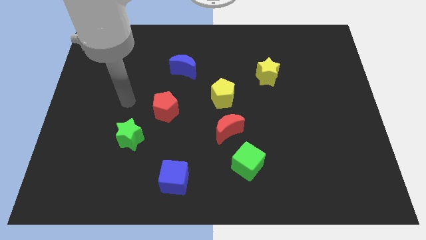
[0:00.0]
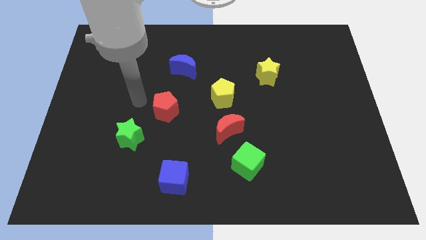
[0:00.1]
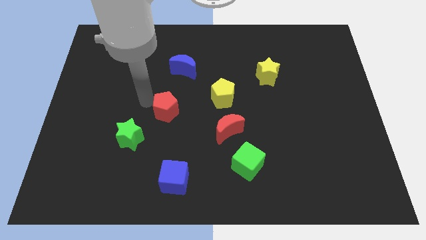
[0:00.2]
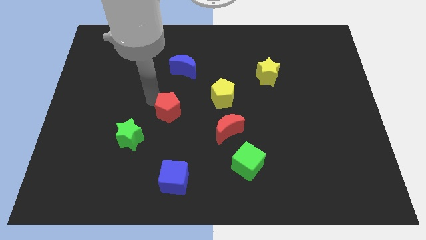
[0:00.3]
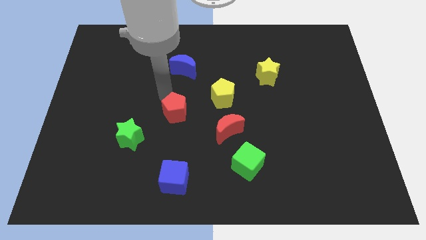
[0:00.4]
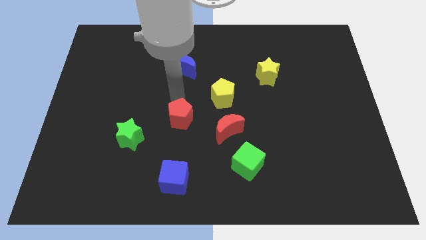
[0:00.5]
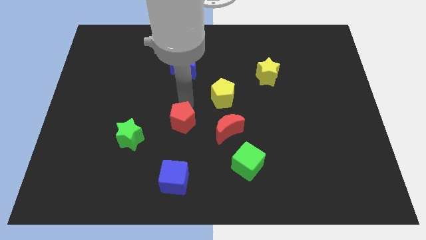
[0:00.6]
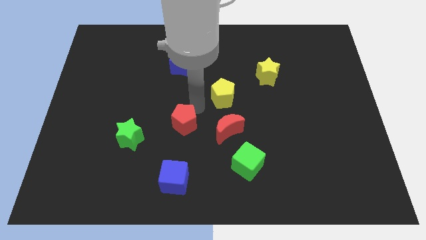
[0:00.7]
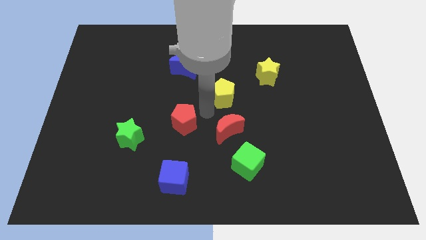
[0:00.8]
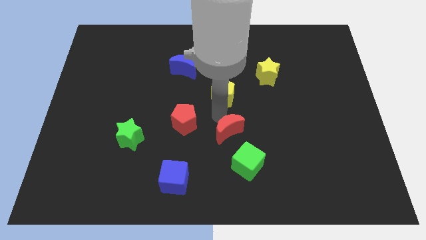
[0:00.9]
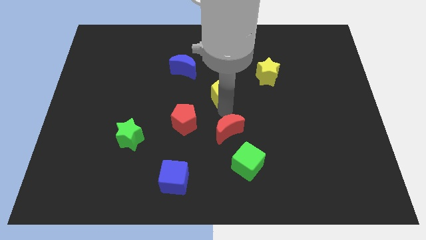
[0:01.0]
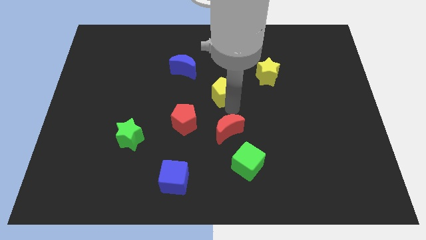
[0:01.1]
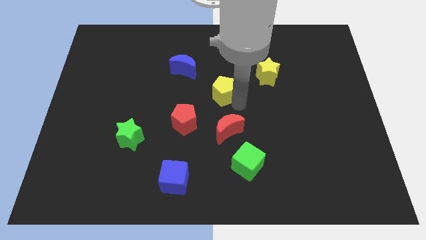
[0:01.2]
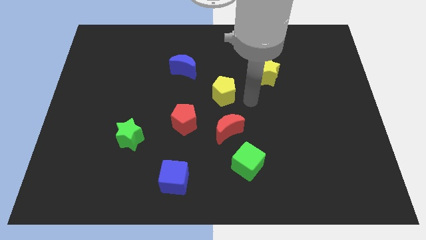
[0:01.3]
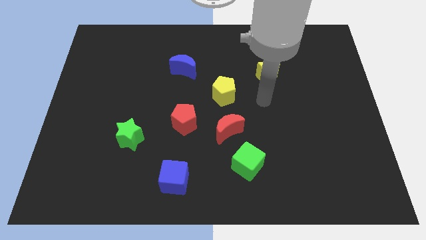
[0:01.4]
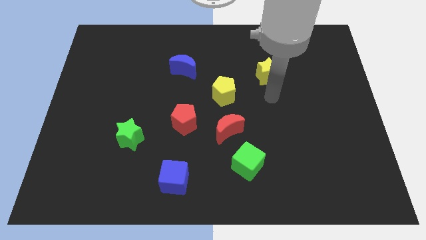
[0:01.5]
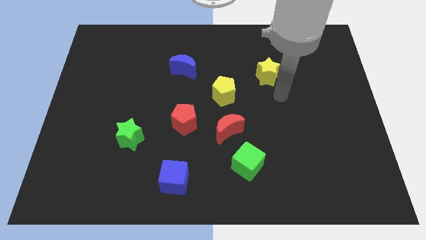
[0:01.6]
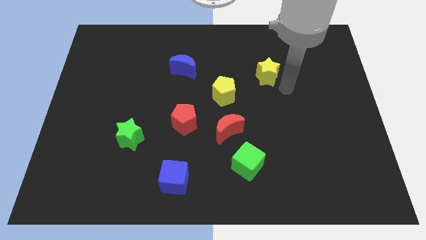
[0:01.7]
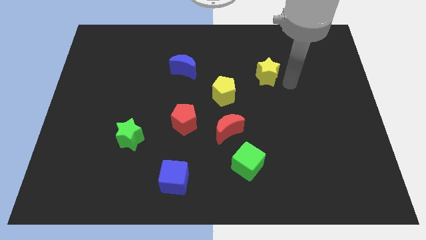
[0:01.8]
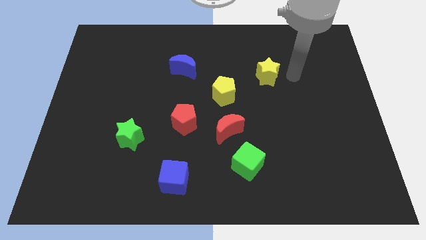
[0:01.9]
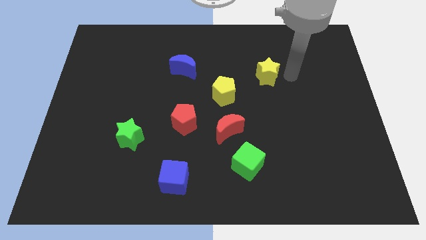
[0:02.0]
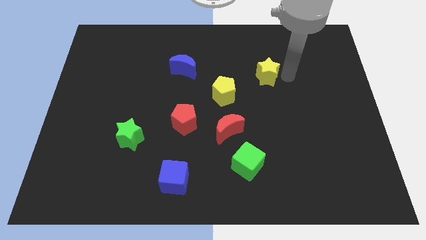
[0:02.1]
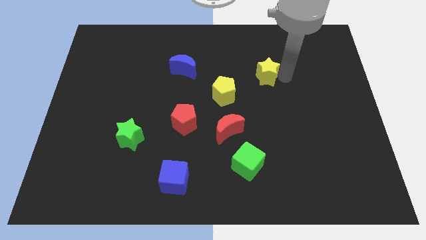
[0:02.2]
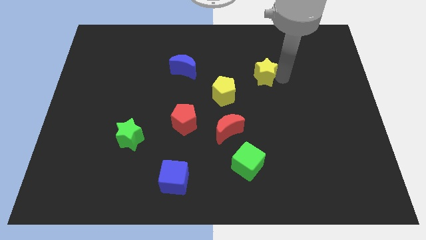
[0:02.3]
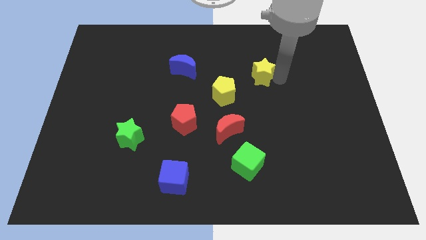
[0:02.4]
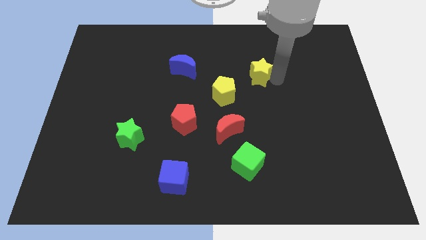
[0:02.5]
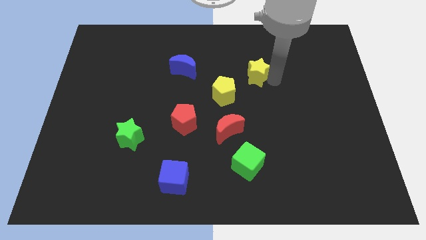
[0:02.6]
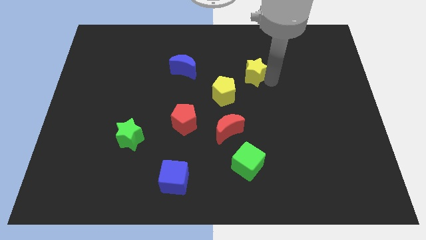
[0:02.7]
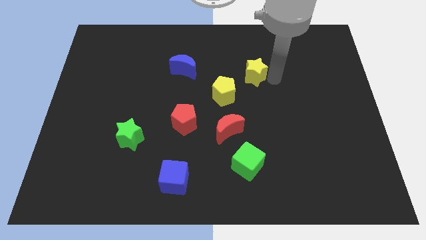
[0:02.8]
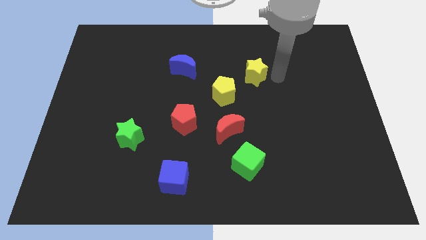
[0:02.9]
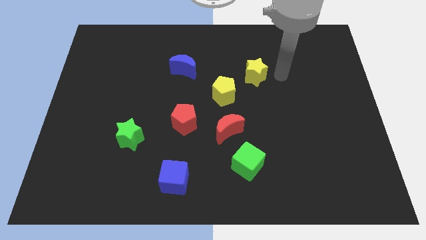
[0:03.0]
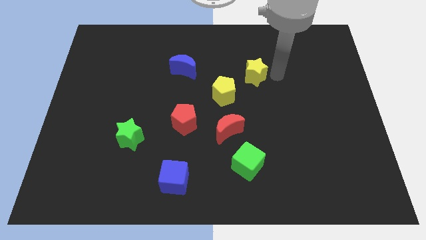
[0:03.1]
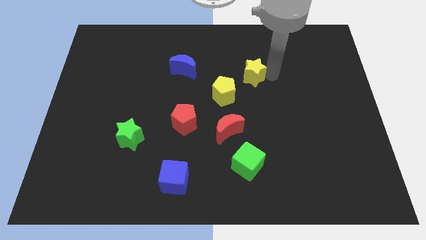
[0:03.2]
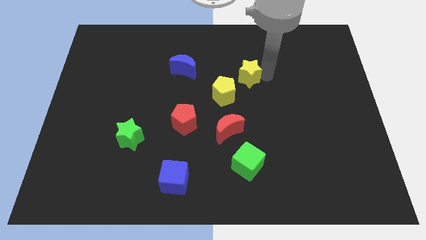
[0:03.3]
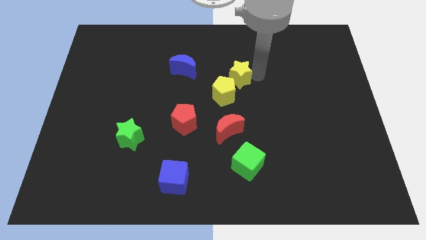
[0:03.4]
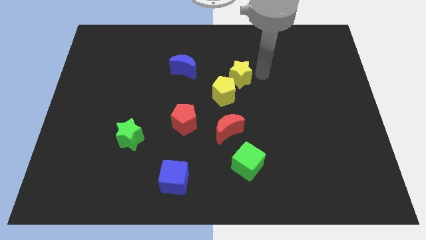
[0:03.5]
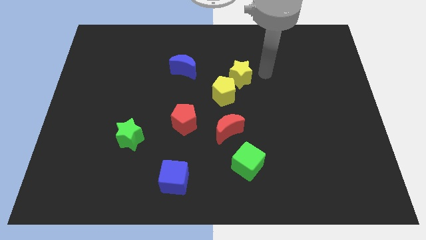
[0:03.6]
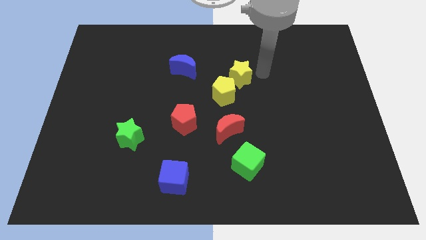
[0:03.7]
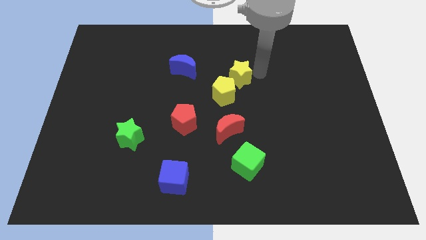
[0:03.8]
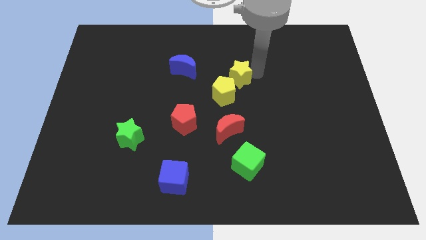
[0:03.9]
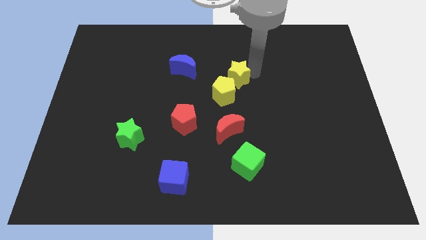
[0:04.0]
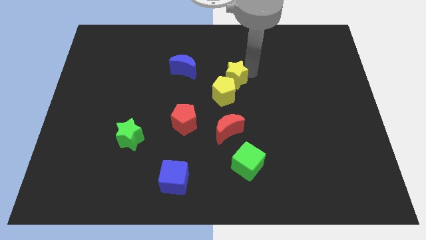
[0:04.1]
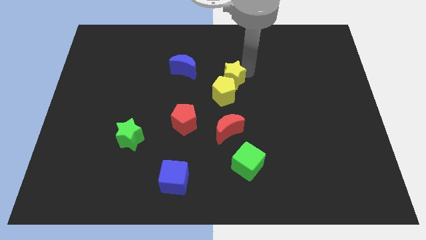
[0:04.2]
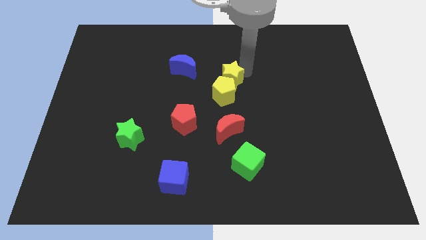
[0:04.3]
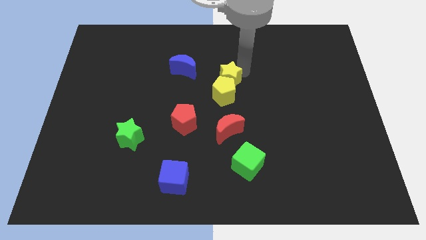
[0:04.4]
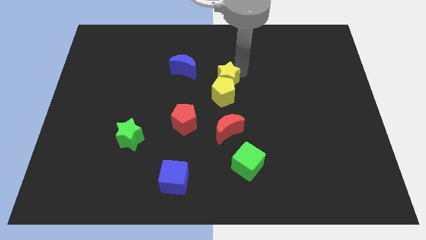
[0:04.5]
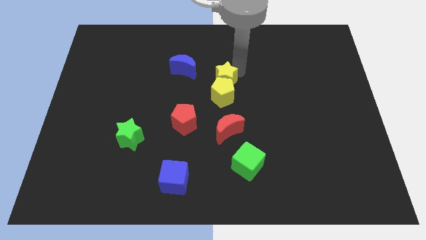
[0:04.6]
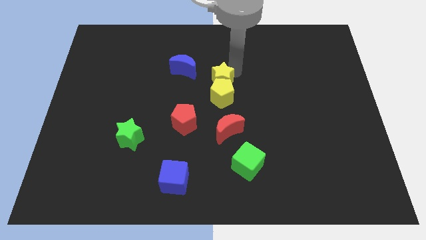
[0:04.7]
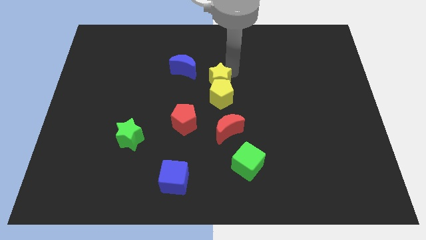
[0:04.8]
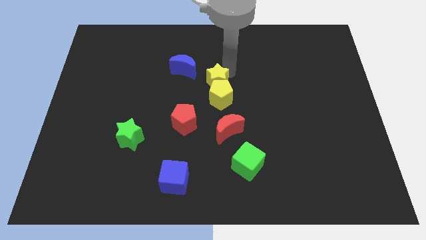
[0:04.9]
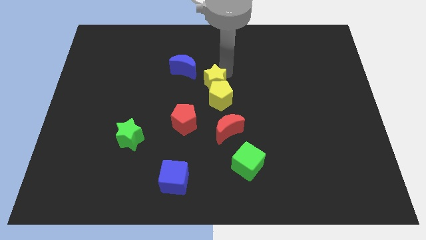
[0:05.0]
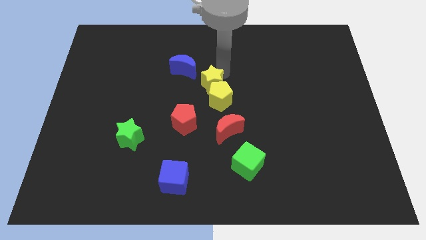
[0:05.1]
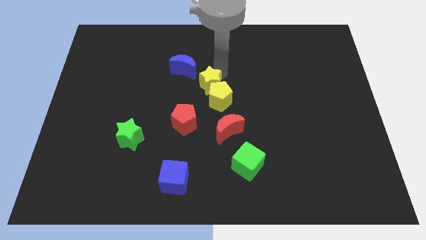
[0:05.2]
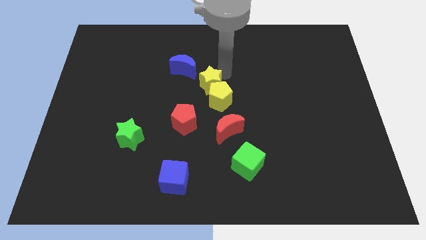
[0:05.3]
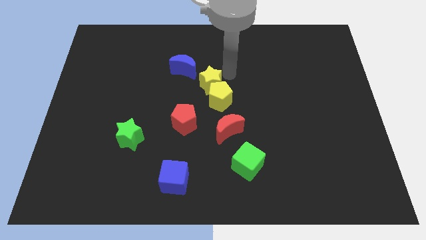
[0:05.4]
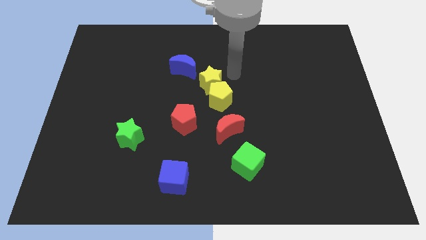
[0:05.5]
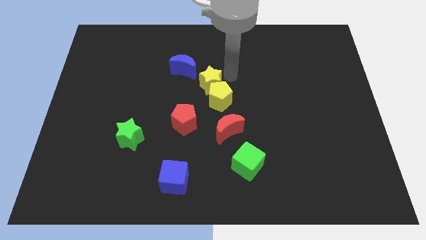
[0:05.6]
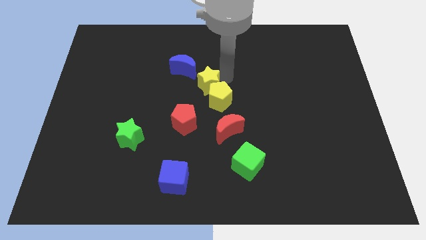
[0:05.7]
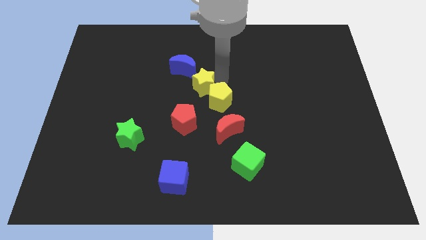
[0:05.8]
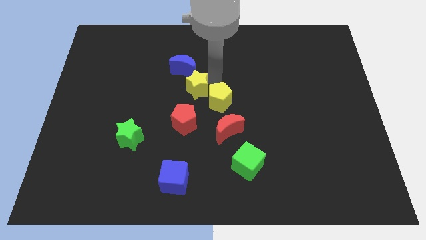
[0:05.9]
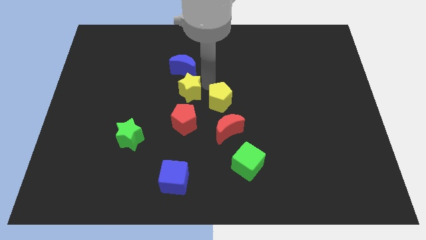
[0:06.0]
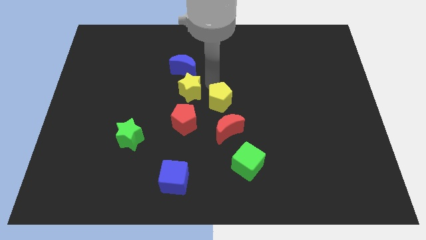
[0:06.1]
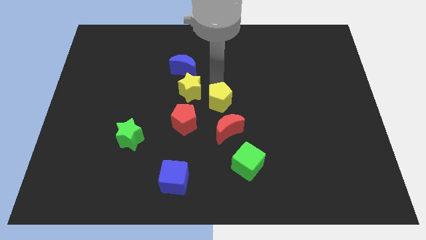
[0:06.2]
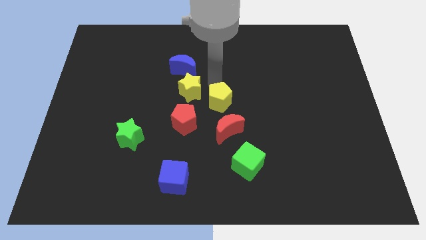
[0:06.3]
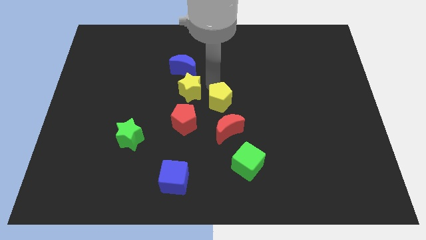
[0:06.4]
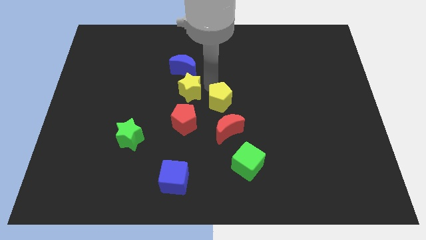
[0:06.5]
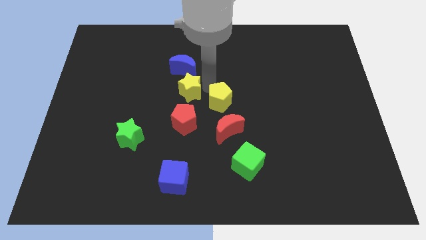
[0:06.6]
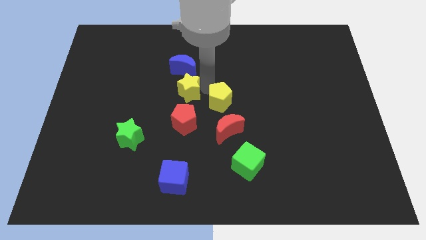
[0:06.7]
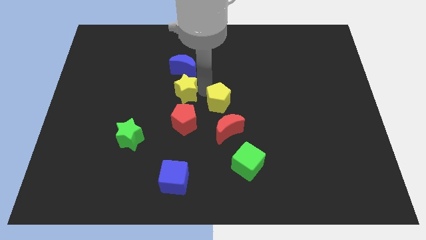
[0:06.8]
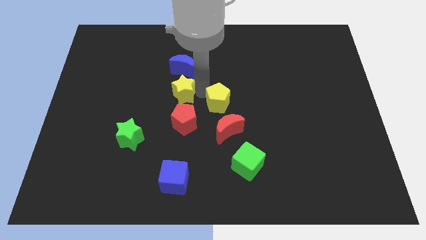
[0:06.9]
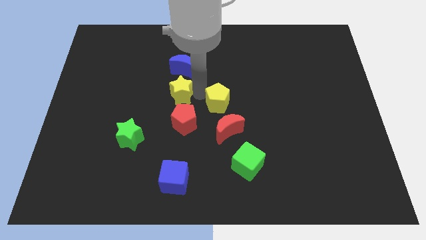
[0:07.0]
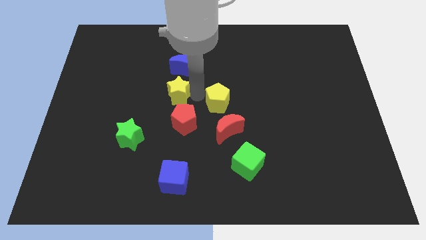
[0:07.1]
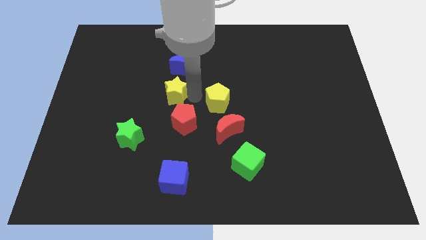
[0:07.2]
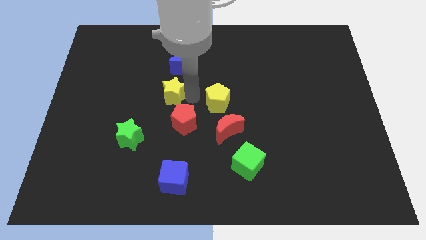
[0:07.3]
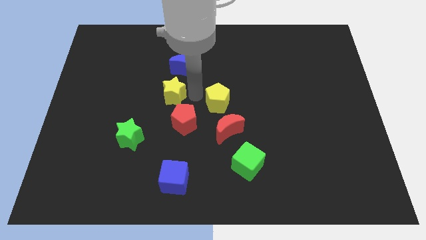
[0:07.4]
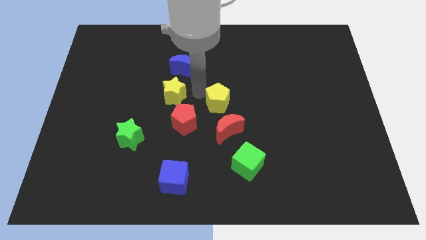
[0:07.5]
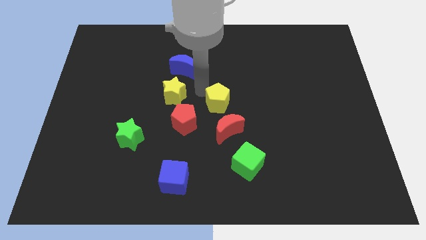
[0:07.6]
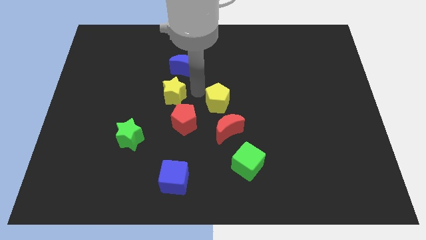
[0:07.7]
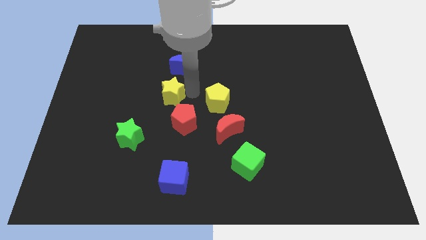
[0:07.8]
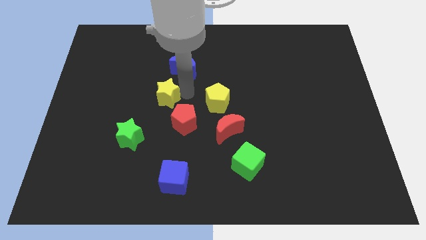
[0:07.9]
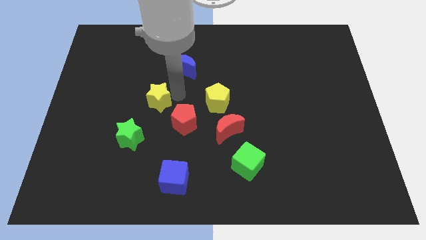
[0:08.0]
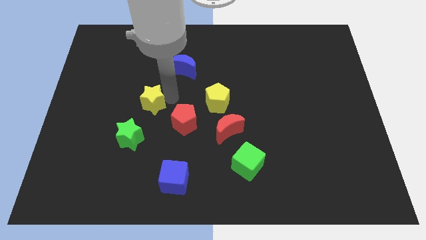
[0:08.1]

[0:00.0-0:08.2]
put the yellow star to the top of the green star
